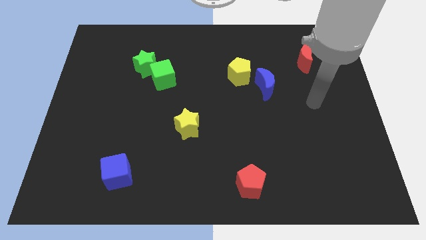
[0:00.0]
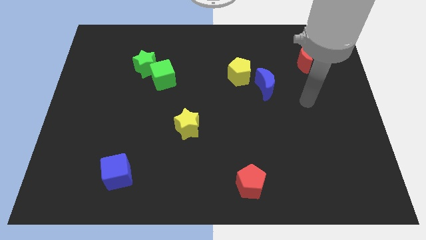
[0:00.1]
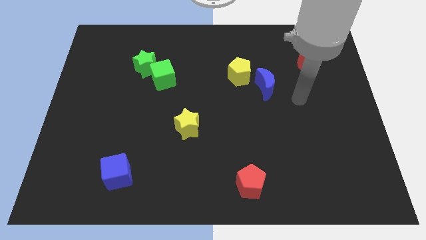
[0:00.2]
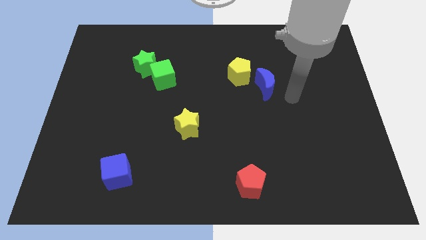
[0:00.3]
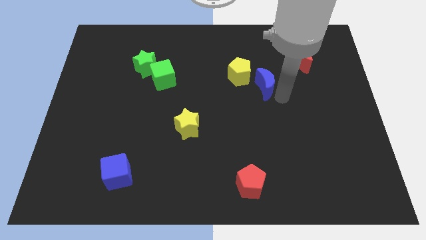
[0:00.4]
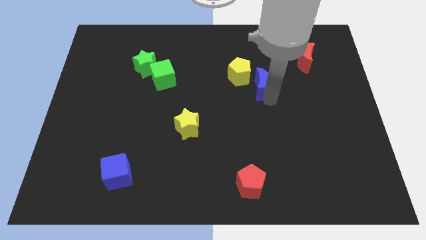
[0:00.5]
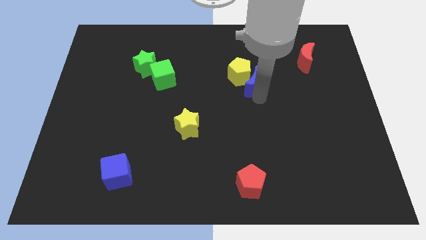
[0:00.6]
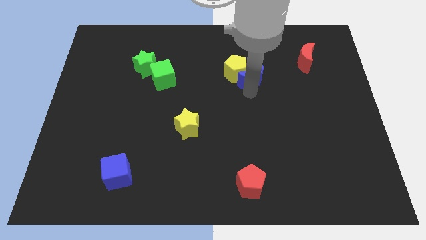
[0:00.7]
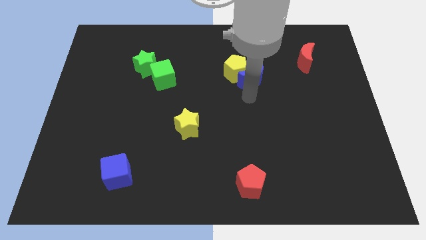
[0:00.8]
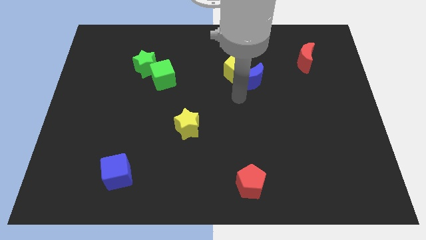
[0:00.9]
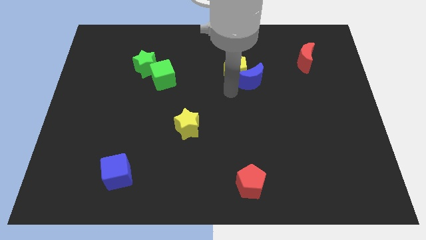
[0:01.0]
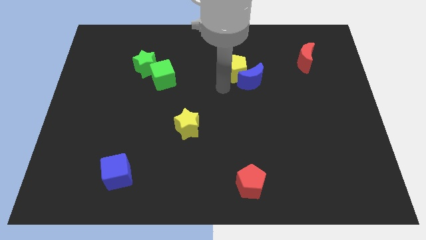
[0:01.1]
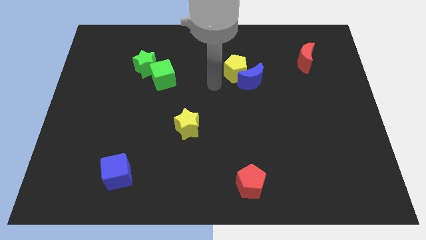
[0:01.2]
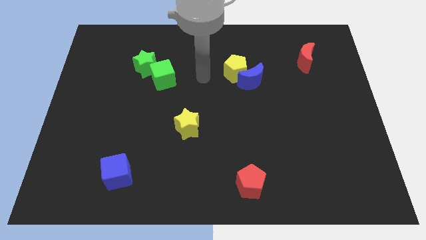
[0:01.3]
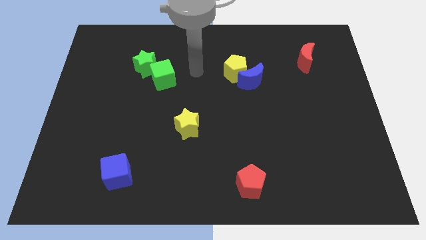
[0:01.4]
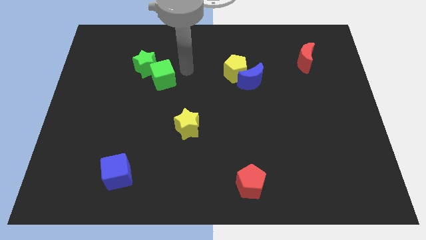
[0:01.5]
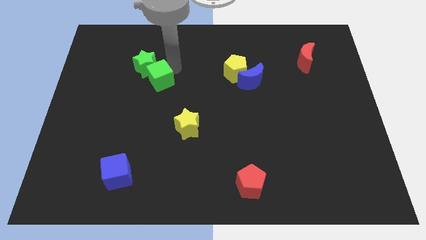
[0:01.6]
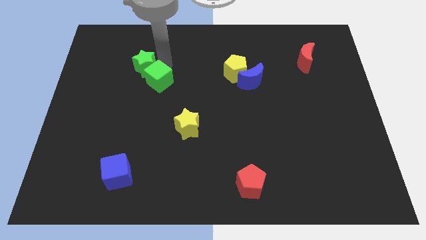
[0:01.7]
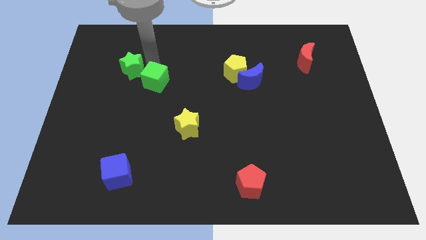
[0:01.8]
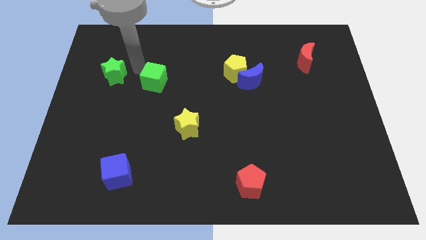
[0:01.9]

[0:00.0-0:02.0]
pull the green cube apart from the green star

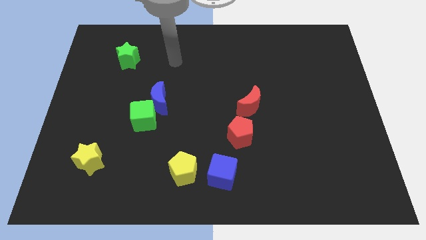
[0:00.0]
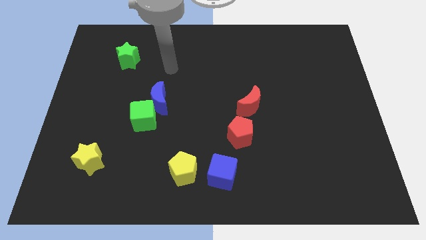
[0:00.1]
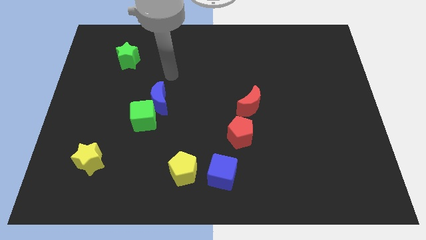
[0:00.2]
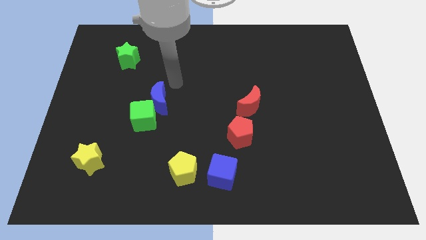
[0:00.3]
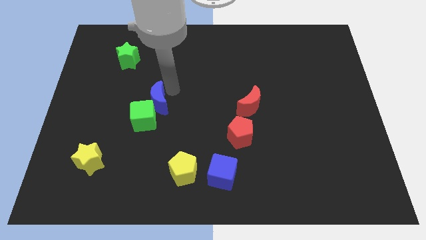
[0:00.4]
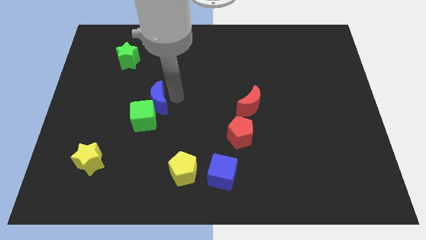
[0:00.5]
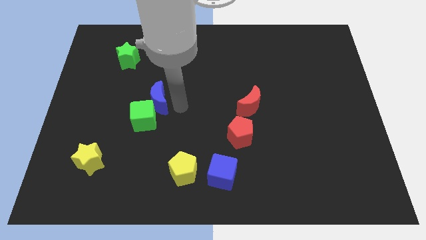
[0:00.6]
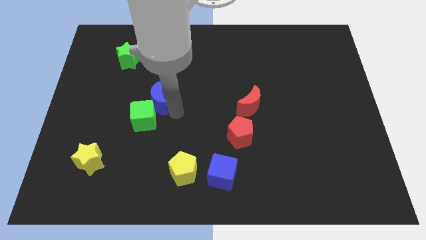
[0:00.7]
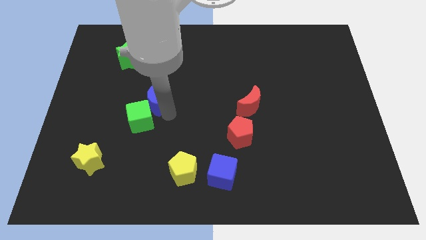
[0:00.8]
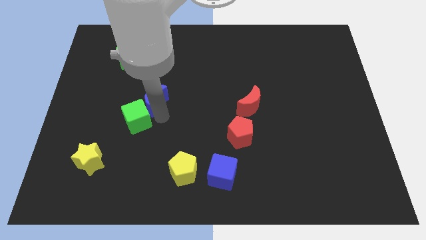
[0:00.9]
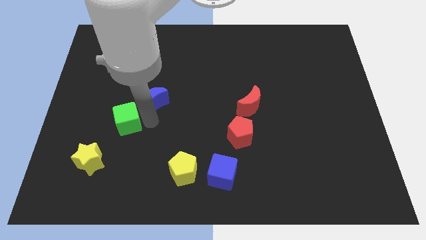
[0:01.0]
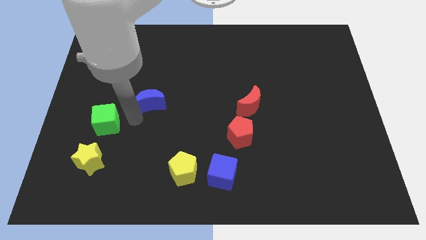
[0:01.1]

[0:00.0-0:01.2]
separate the blue moon from the green cube

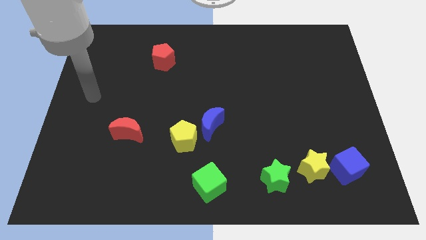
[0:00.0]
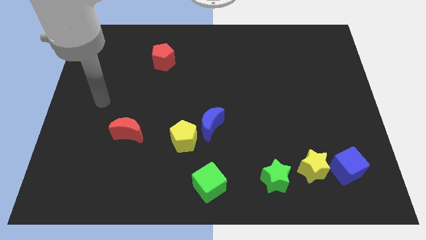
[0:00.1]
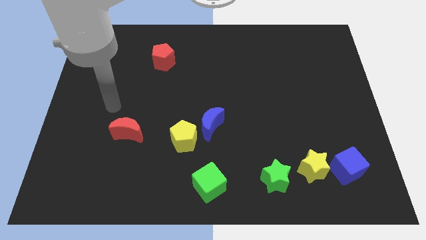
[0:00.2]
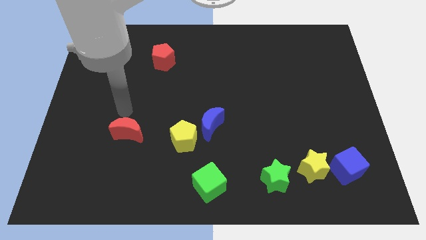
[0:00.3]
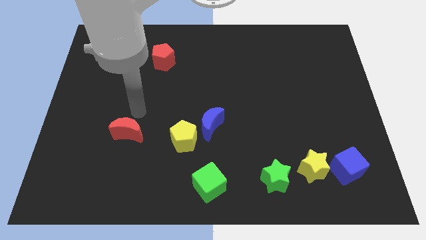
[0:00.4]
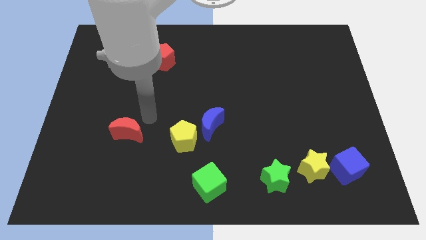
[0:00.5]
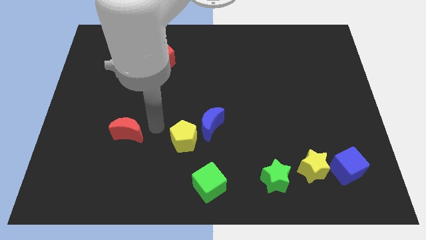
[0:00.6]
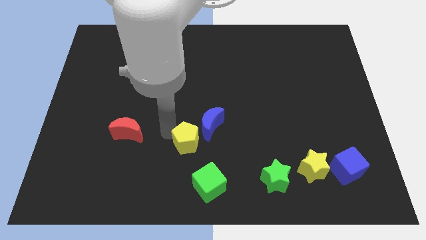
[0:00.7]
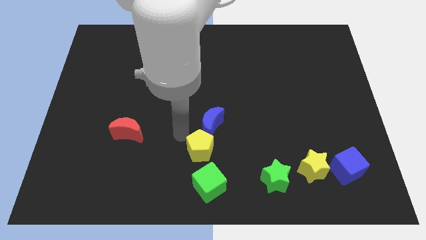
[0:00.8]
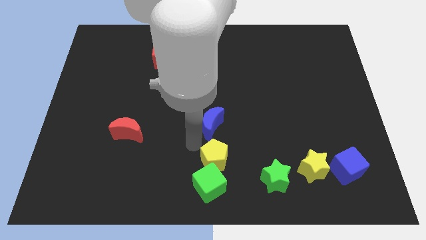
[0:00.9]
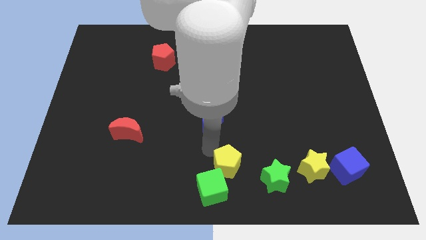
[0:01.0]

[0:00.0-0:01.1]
pull the blue moon apart from the yellow pentagon

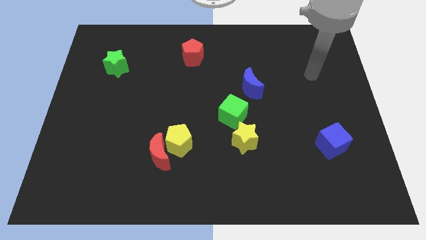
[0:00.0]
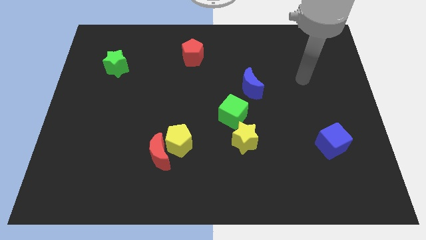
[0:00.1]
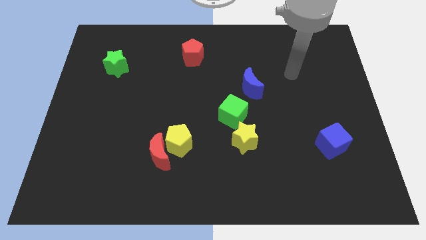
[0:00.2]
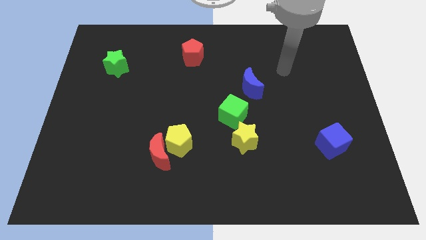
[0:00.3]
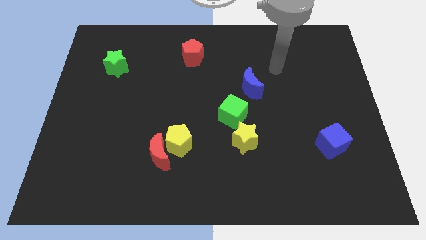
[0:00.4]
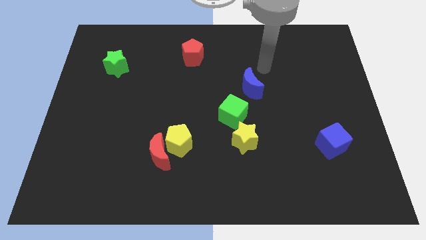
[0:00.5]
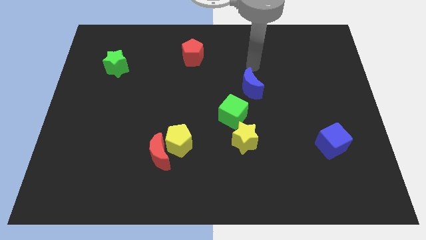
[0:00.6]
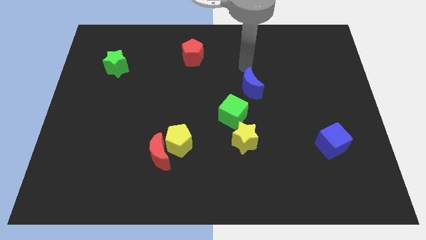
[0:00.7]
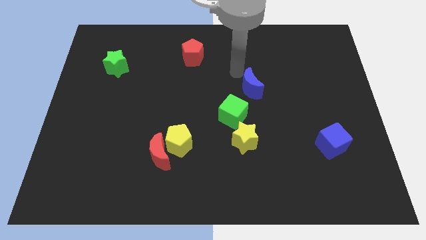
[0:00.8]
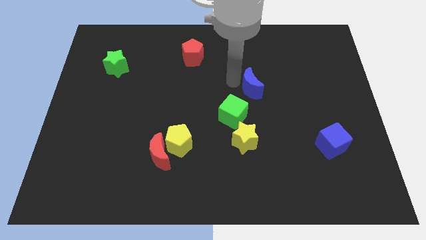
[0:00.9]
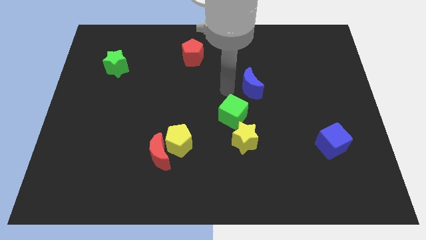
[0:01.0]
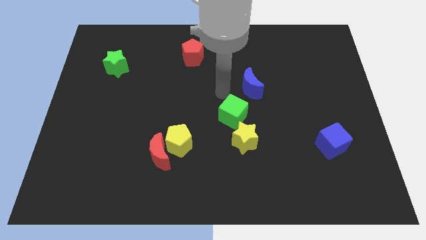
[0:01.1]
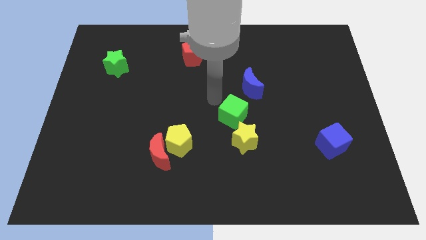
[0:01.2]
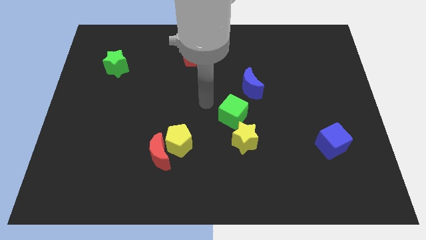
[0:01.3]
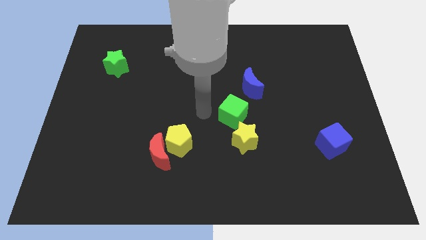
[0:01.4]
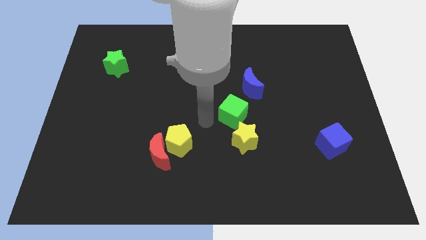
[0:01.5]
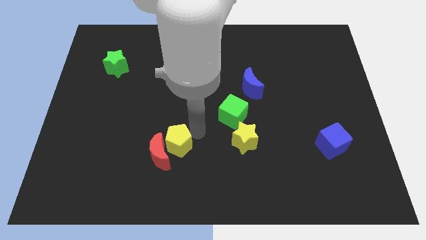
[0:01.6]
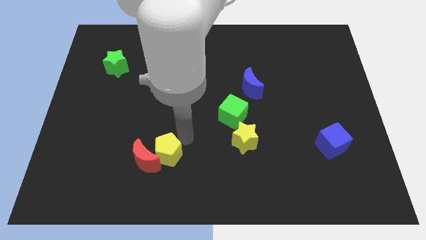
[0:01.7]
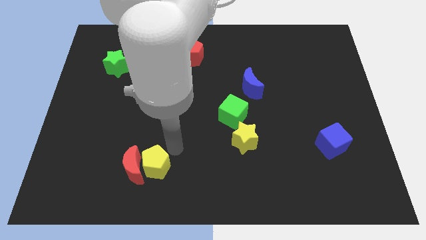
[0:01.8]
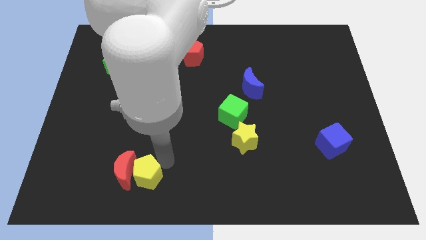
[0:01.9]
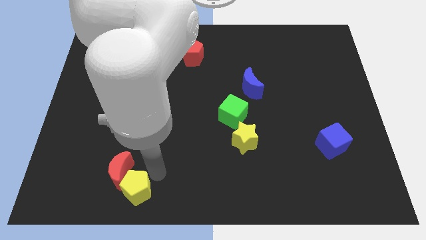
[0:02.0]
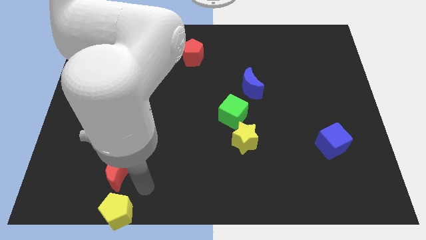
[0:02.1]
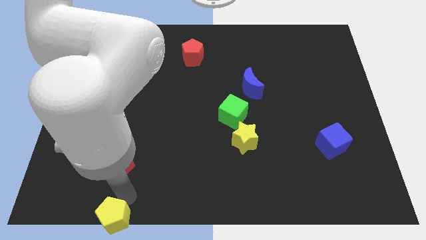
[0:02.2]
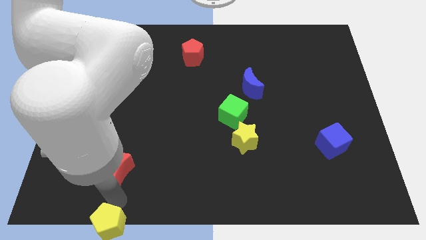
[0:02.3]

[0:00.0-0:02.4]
move the red moon away from the yellow pentagon

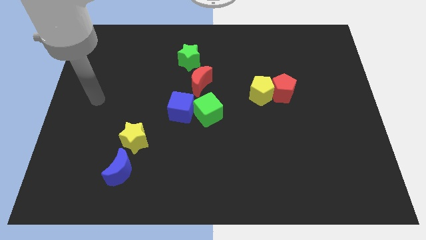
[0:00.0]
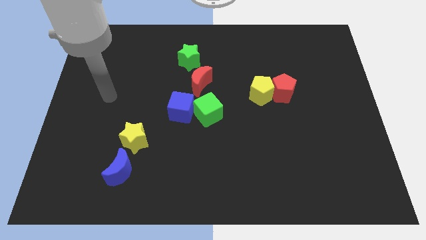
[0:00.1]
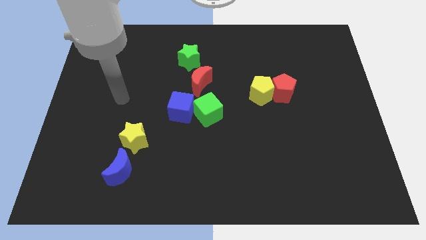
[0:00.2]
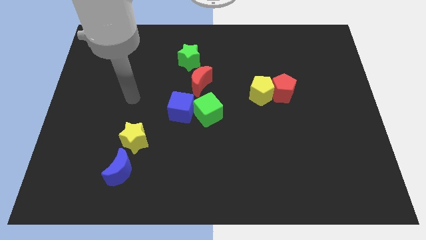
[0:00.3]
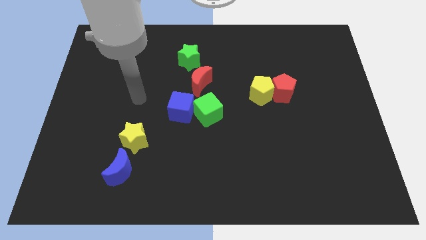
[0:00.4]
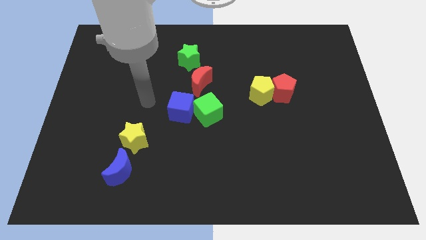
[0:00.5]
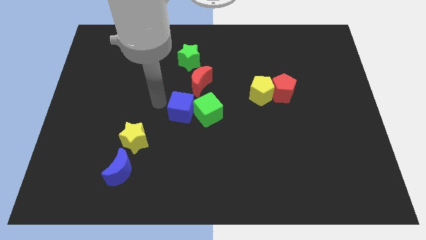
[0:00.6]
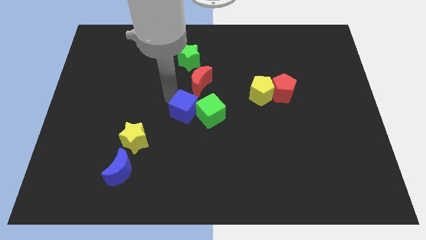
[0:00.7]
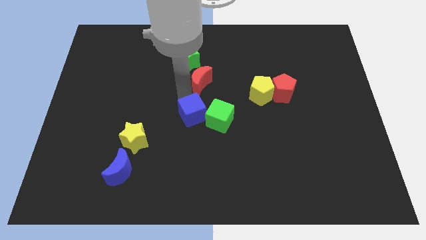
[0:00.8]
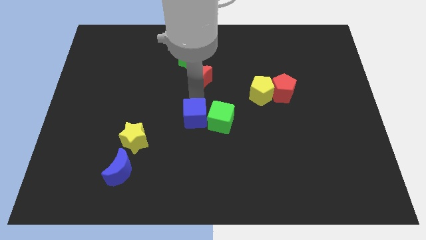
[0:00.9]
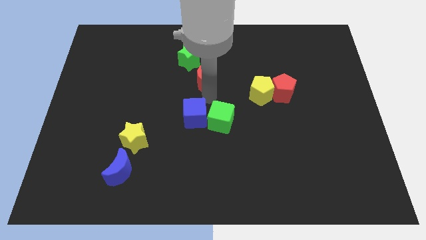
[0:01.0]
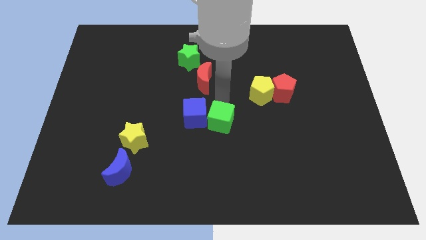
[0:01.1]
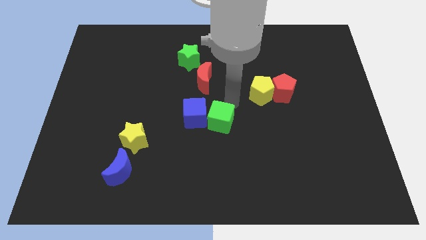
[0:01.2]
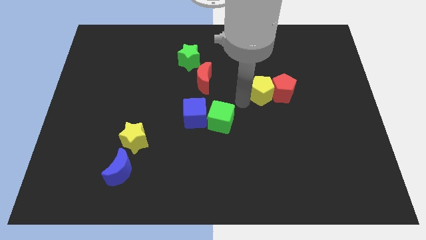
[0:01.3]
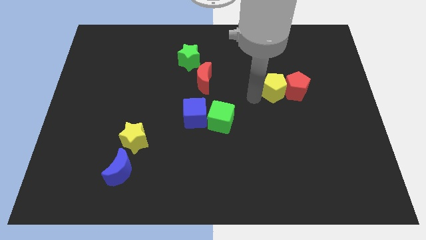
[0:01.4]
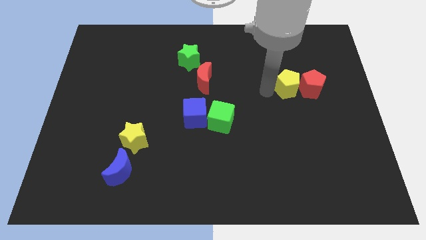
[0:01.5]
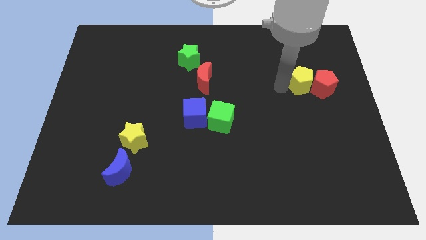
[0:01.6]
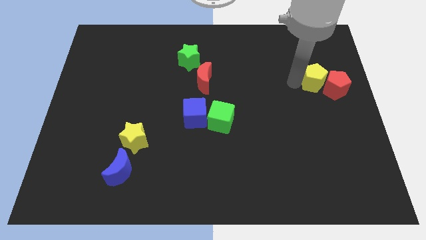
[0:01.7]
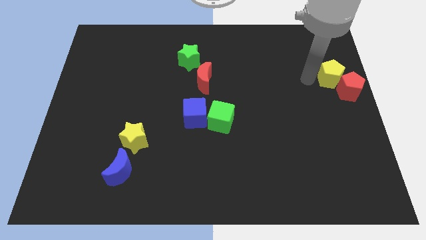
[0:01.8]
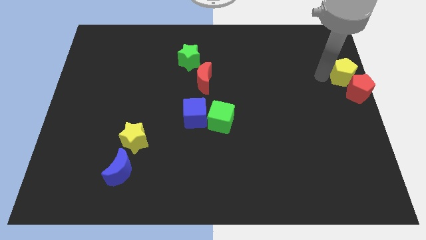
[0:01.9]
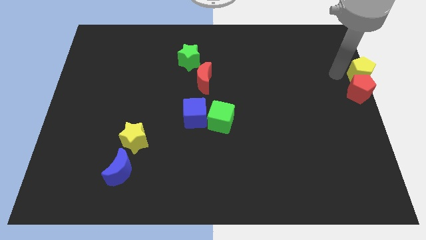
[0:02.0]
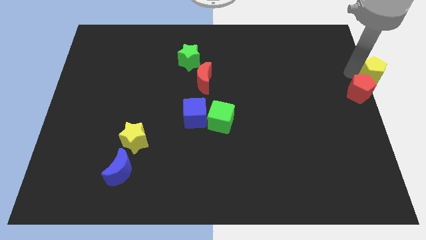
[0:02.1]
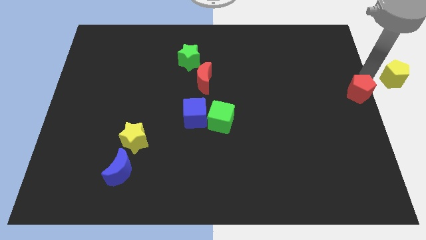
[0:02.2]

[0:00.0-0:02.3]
pull the red pentagon apart from the yellow pentagon

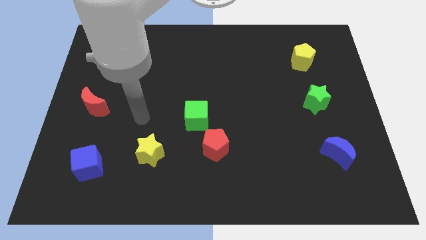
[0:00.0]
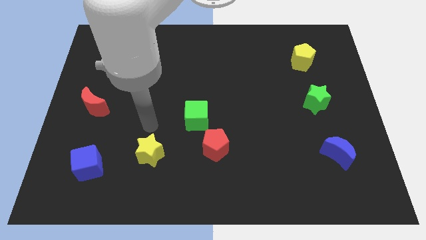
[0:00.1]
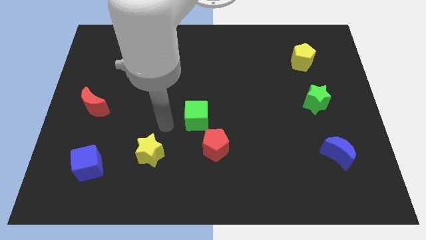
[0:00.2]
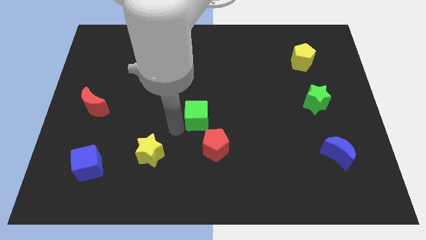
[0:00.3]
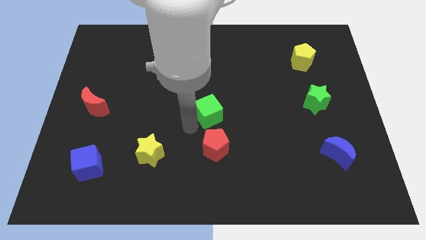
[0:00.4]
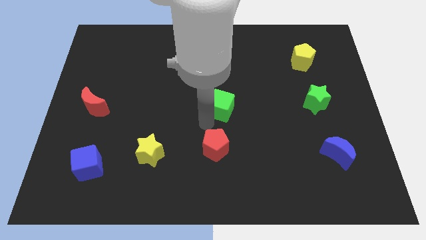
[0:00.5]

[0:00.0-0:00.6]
pull the red pentagon apart from the green cube
